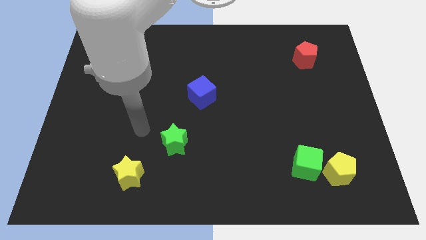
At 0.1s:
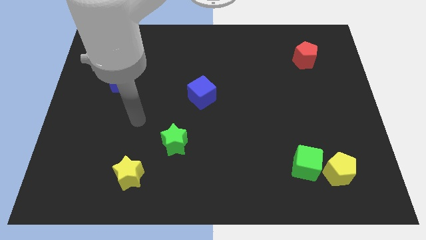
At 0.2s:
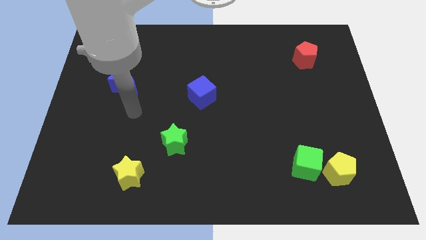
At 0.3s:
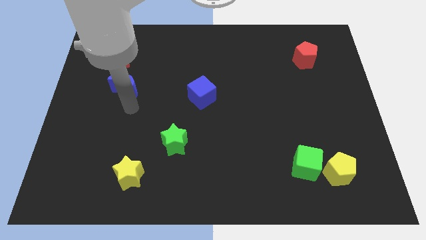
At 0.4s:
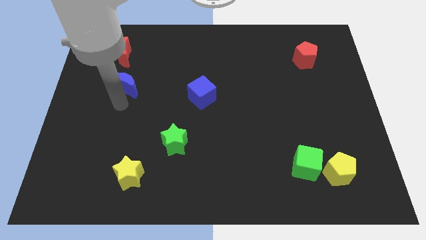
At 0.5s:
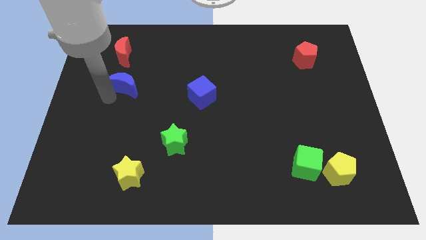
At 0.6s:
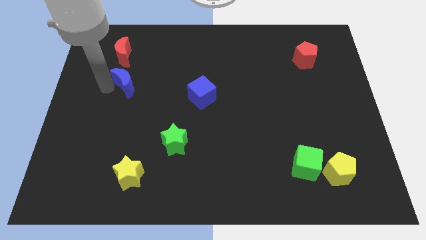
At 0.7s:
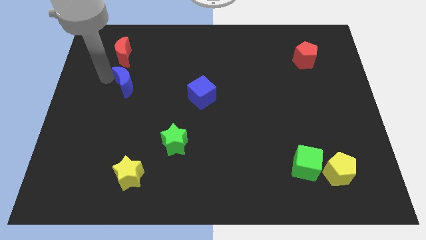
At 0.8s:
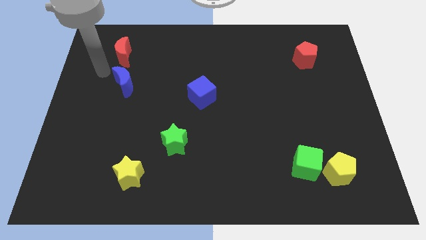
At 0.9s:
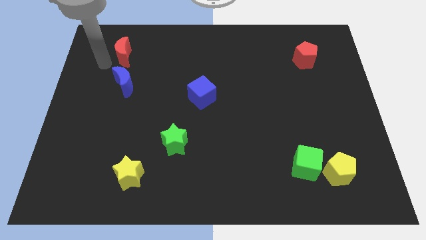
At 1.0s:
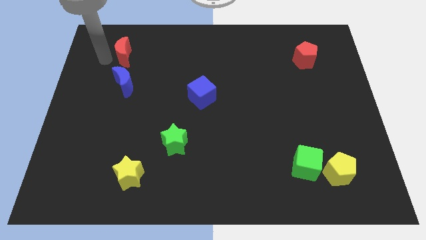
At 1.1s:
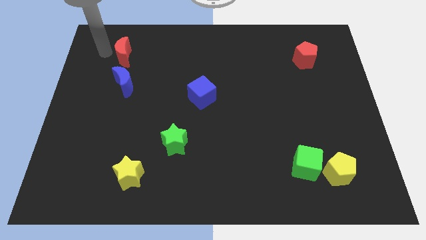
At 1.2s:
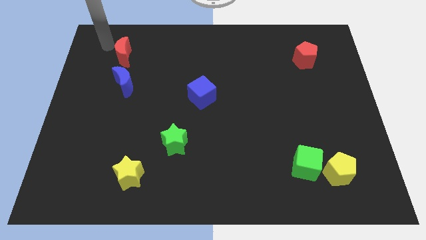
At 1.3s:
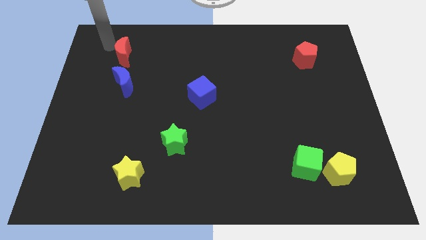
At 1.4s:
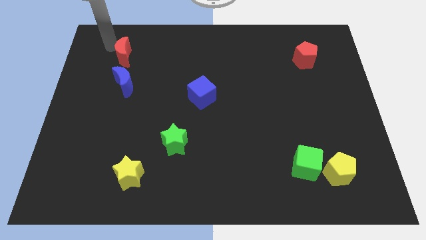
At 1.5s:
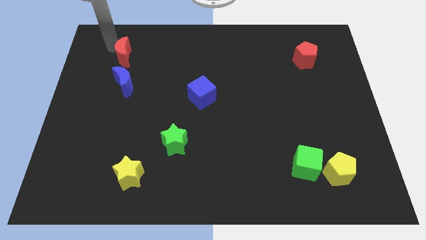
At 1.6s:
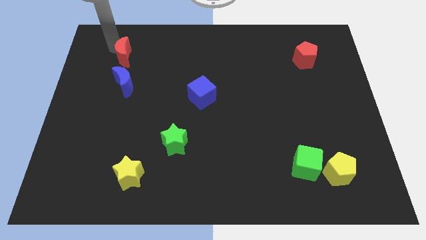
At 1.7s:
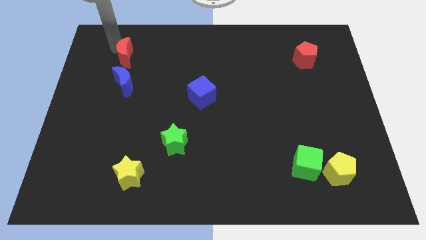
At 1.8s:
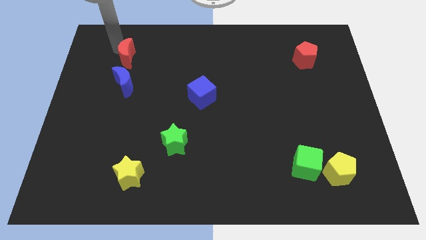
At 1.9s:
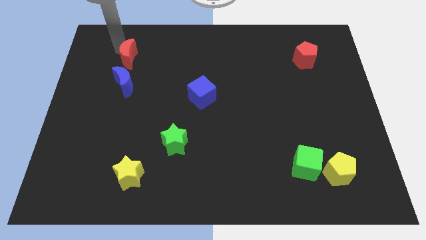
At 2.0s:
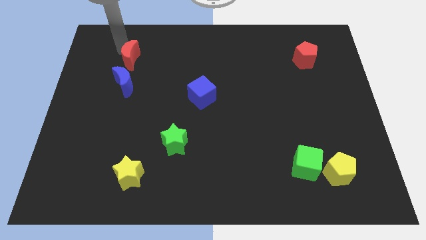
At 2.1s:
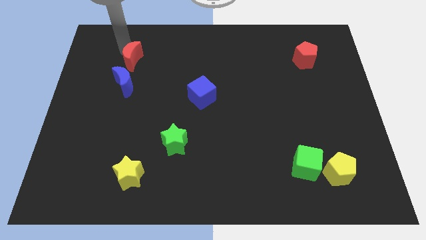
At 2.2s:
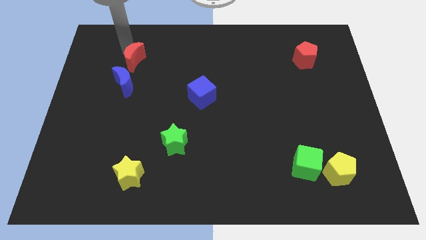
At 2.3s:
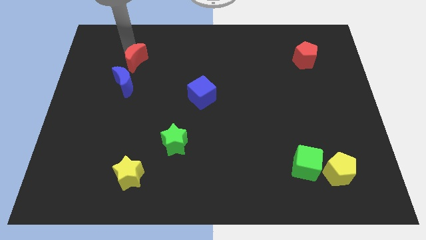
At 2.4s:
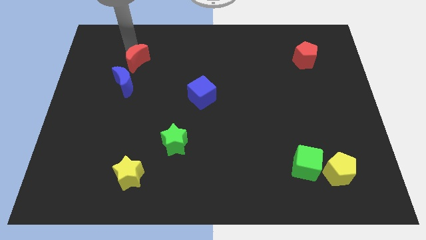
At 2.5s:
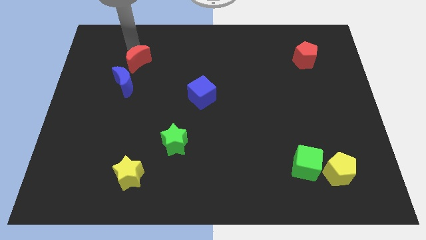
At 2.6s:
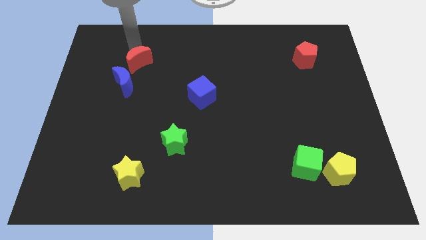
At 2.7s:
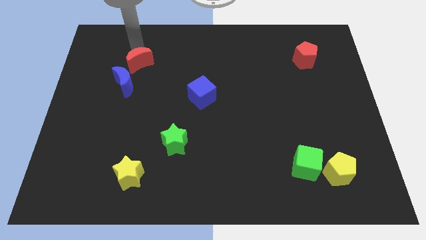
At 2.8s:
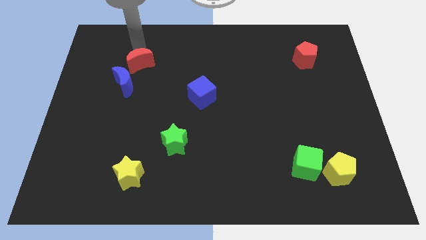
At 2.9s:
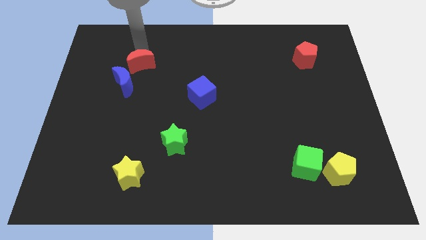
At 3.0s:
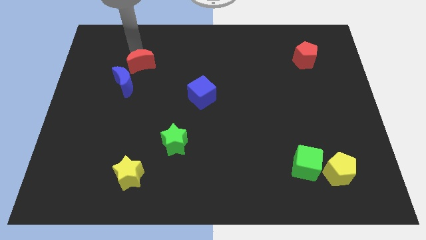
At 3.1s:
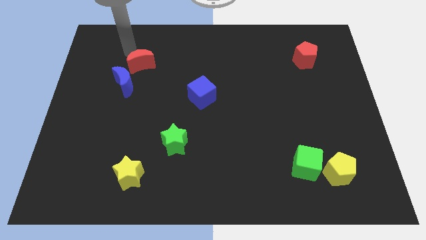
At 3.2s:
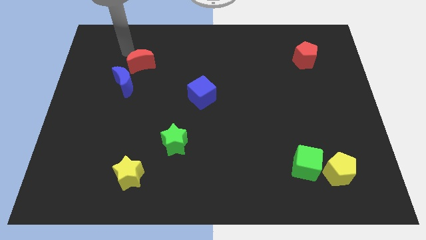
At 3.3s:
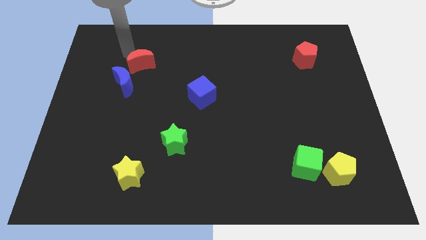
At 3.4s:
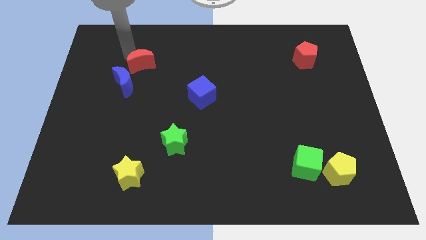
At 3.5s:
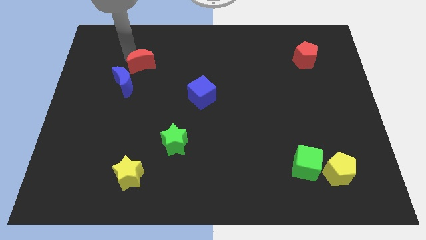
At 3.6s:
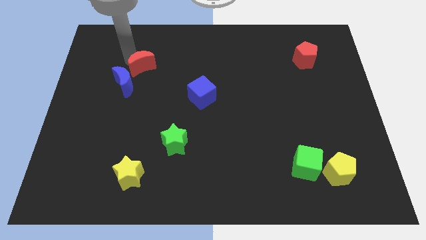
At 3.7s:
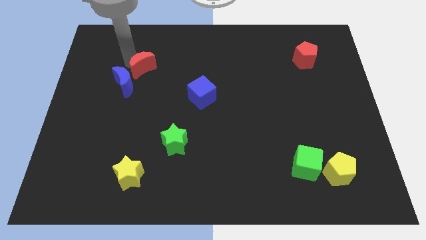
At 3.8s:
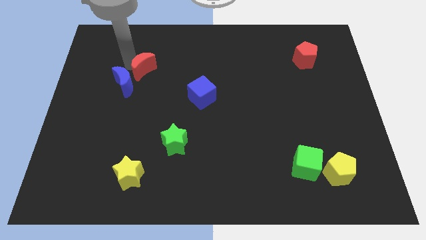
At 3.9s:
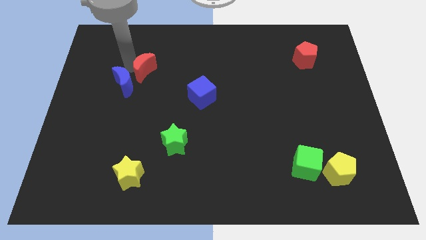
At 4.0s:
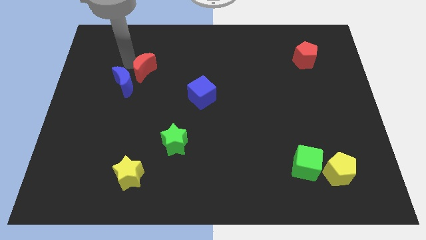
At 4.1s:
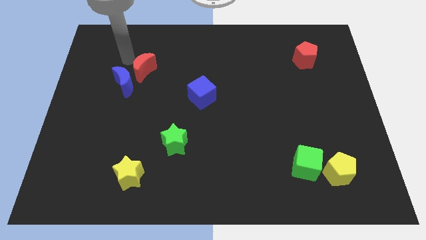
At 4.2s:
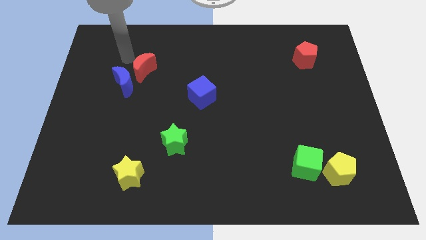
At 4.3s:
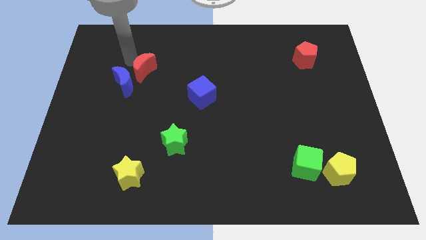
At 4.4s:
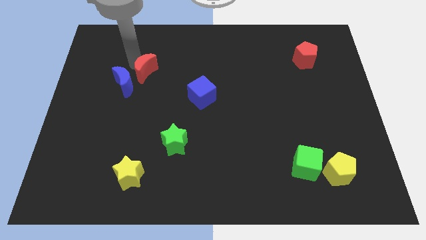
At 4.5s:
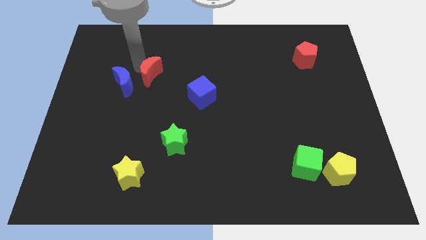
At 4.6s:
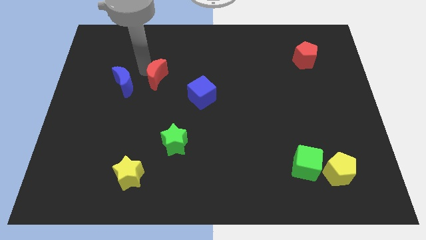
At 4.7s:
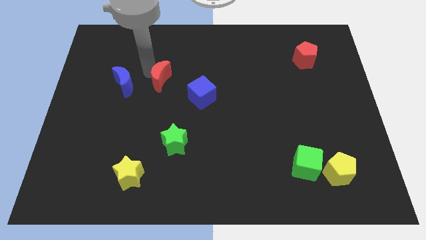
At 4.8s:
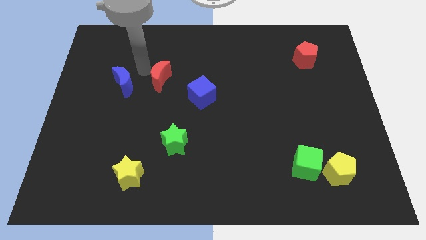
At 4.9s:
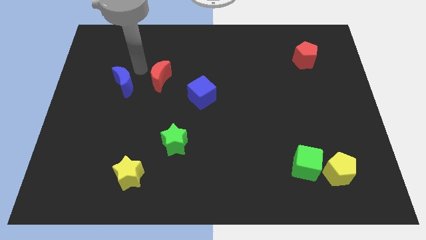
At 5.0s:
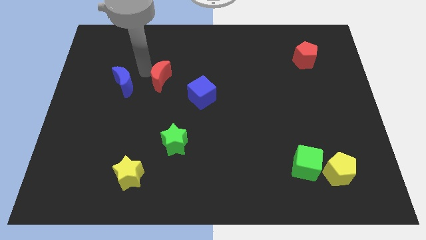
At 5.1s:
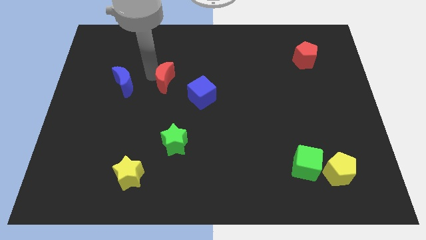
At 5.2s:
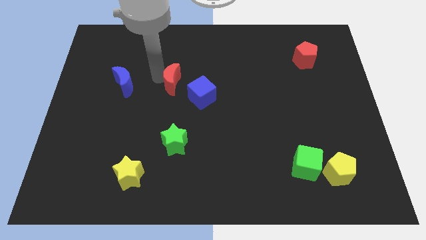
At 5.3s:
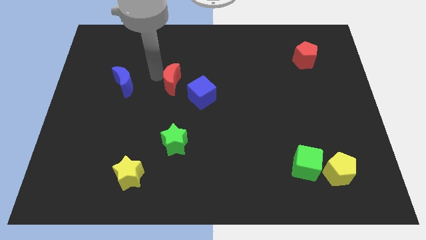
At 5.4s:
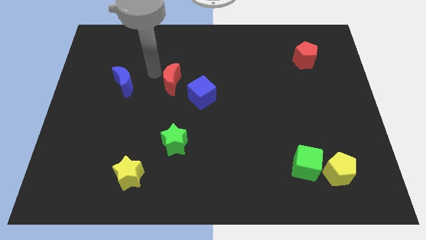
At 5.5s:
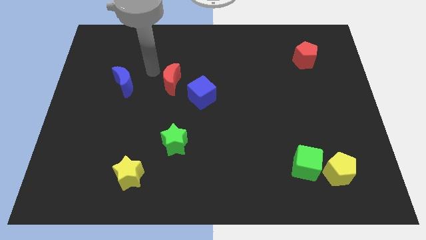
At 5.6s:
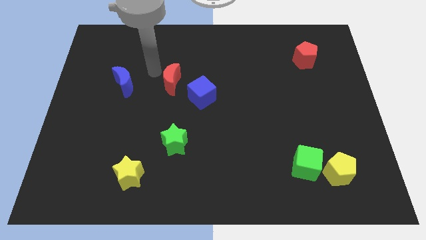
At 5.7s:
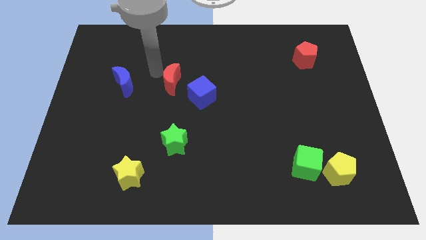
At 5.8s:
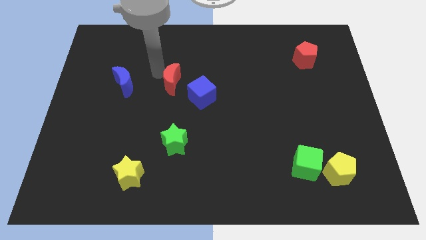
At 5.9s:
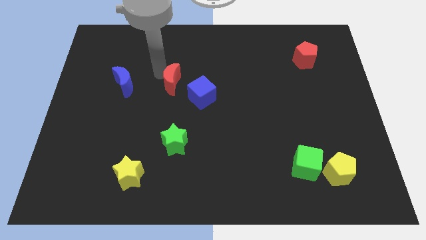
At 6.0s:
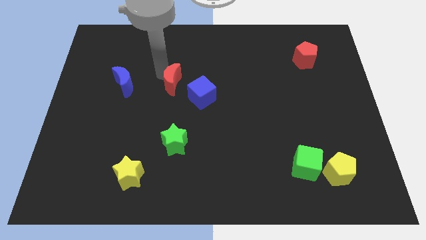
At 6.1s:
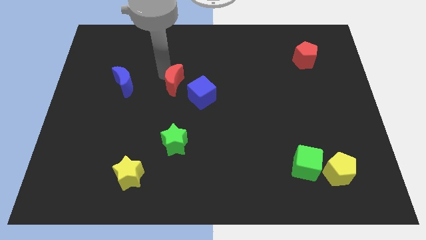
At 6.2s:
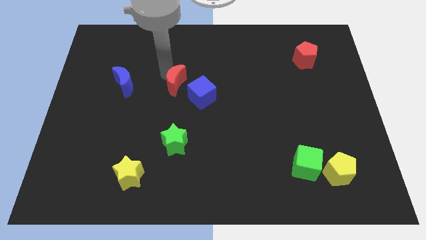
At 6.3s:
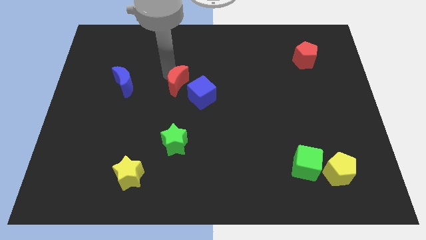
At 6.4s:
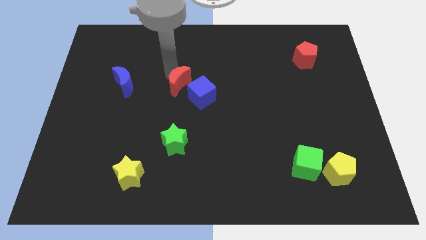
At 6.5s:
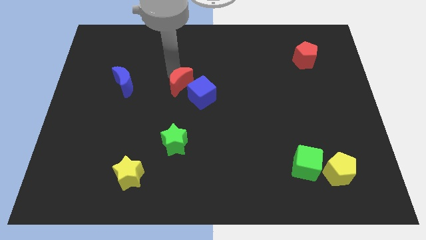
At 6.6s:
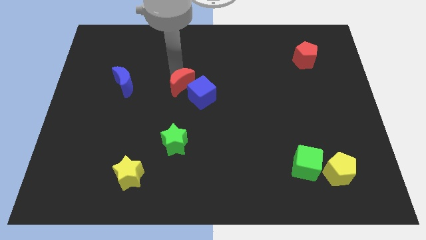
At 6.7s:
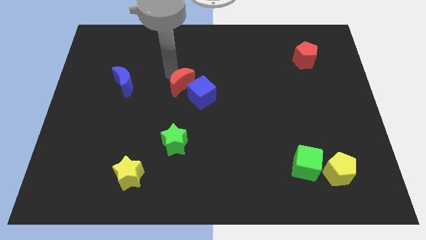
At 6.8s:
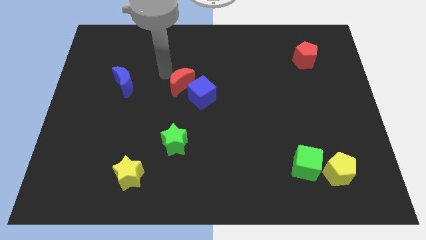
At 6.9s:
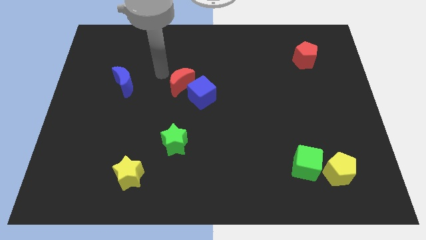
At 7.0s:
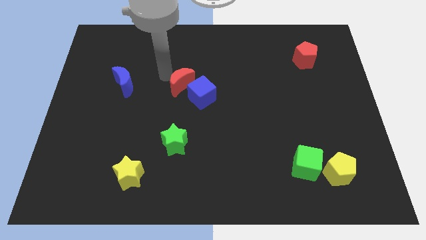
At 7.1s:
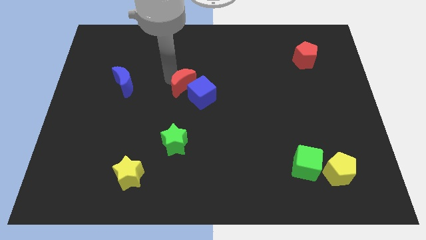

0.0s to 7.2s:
put the red moon towards the blue cube
